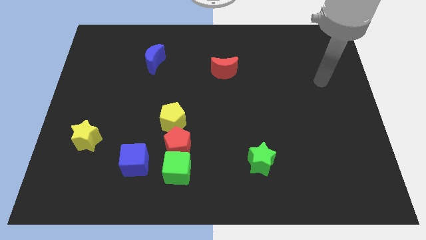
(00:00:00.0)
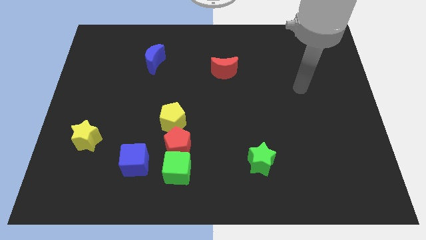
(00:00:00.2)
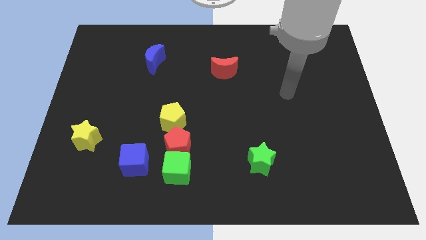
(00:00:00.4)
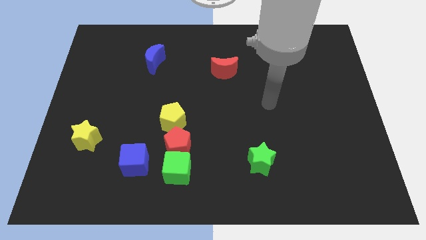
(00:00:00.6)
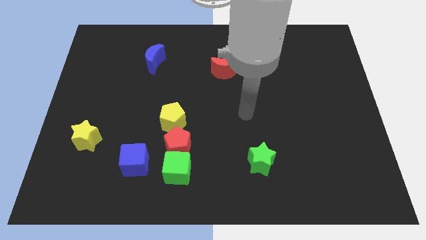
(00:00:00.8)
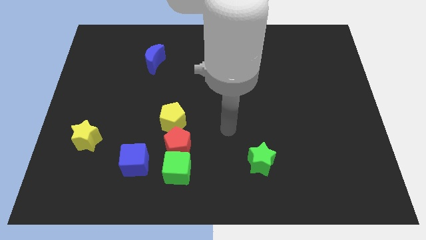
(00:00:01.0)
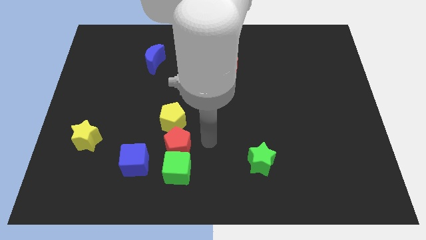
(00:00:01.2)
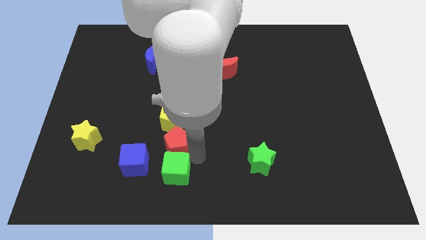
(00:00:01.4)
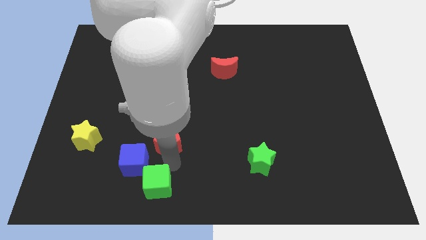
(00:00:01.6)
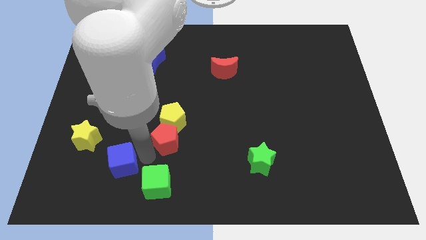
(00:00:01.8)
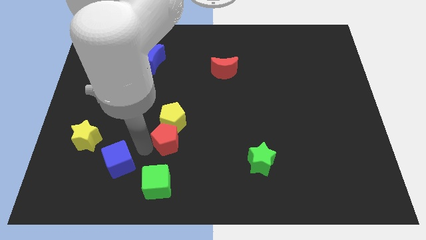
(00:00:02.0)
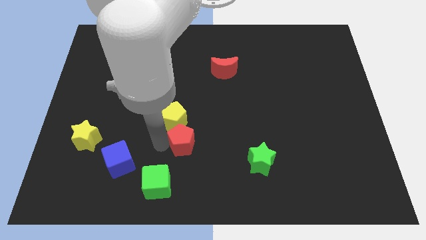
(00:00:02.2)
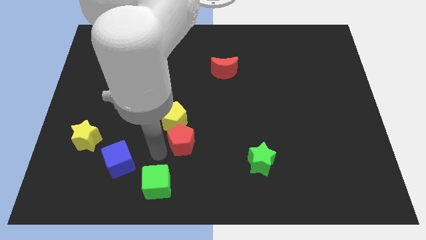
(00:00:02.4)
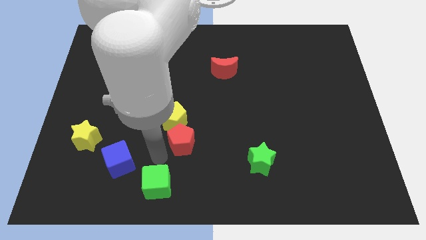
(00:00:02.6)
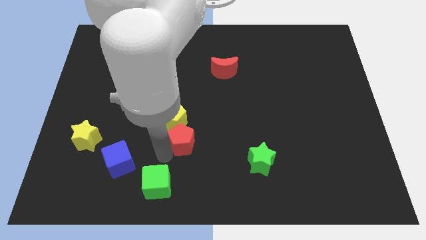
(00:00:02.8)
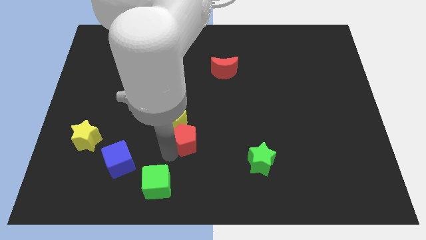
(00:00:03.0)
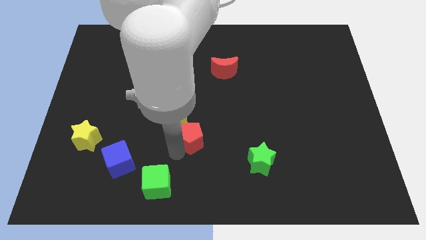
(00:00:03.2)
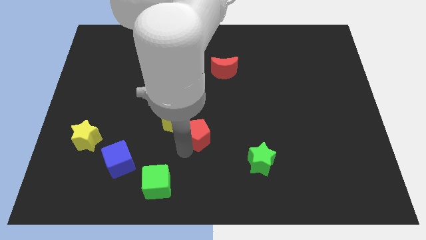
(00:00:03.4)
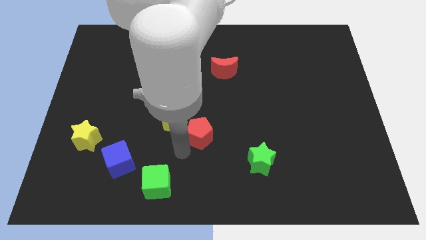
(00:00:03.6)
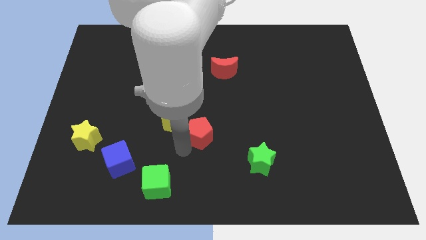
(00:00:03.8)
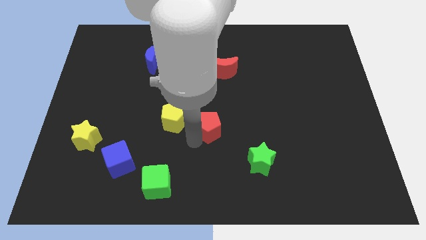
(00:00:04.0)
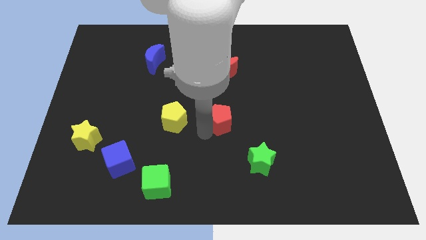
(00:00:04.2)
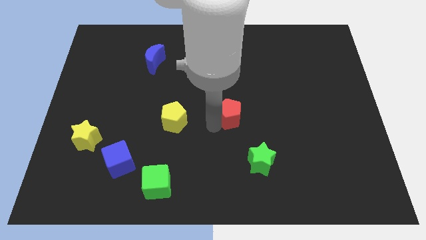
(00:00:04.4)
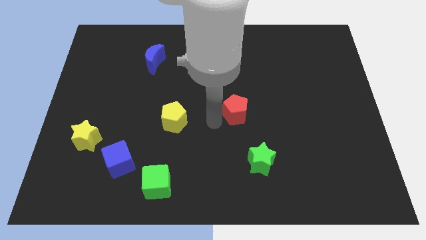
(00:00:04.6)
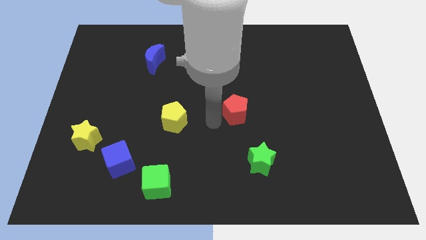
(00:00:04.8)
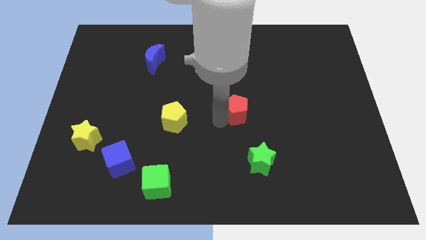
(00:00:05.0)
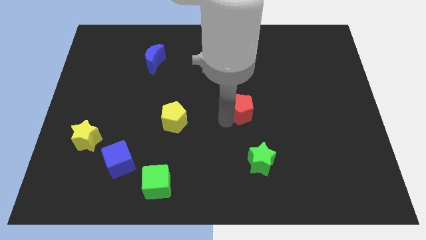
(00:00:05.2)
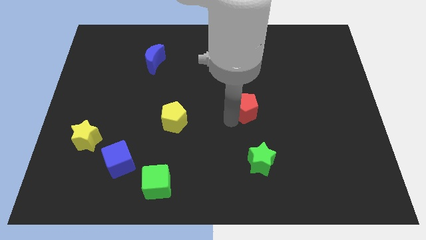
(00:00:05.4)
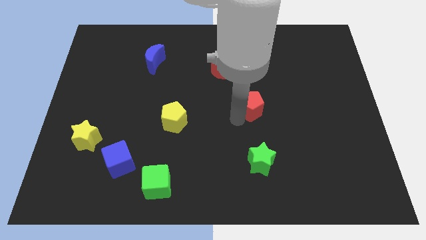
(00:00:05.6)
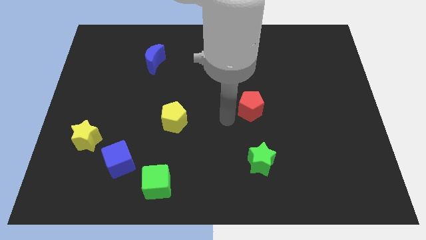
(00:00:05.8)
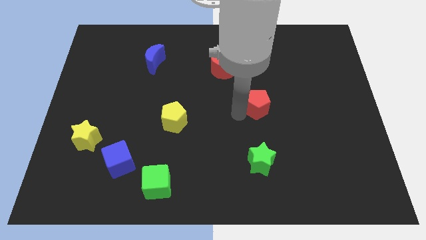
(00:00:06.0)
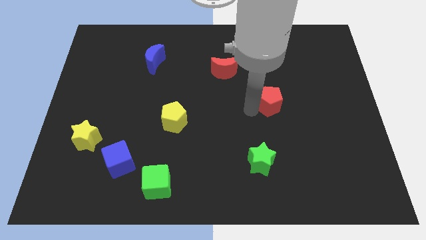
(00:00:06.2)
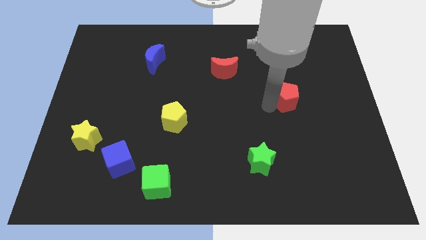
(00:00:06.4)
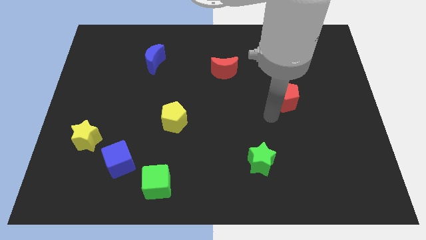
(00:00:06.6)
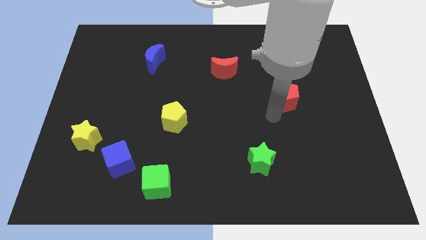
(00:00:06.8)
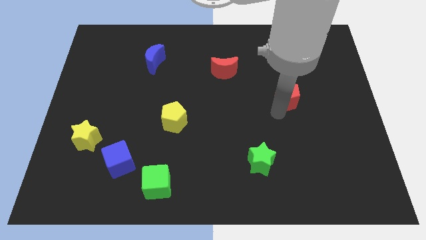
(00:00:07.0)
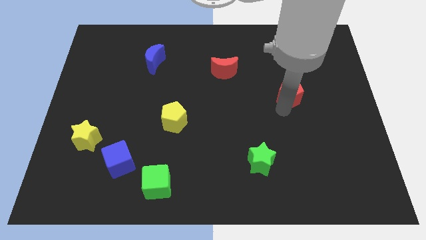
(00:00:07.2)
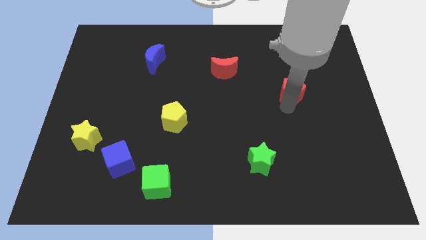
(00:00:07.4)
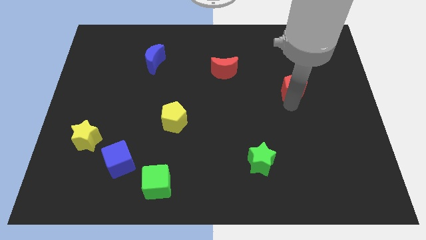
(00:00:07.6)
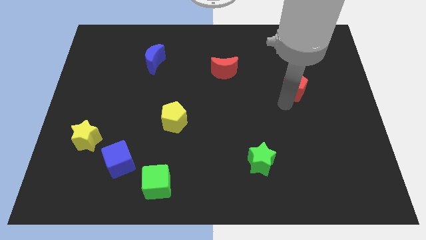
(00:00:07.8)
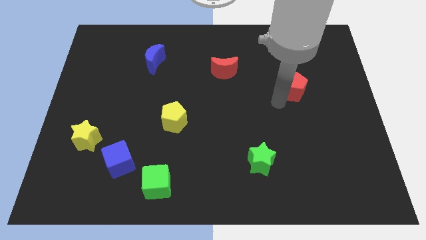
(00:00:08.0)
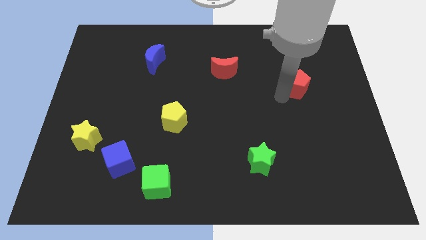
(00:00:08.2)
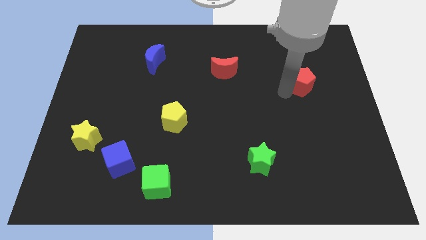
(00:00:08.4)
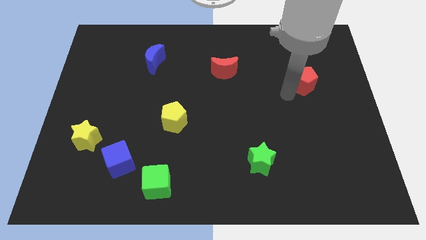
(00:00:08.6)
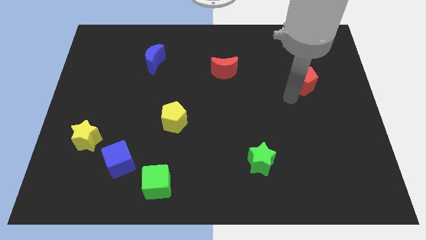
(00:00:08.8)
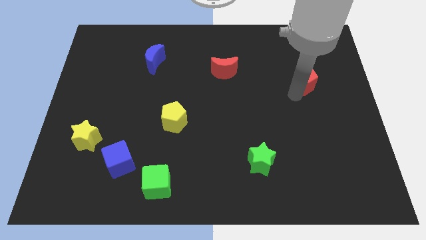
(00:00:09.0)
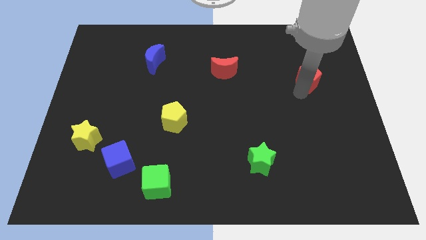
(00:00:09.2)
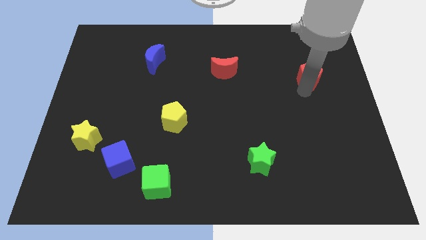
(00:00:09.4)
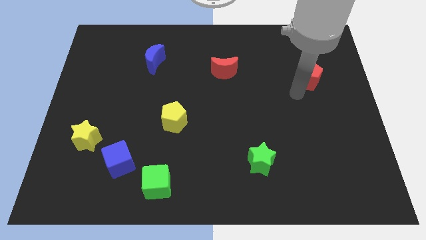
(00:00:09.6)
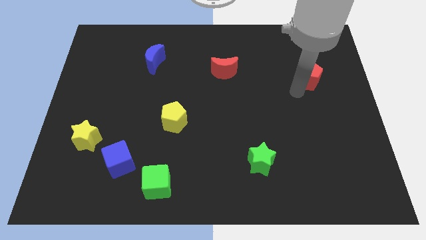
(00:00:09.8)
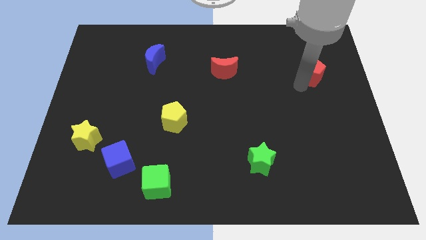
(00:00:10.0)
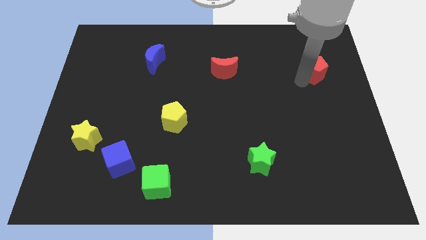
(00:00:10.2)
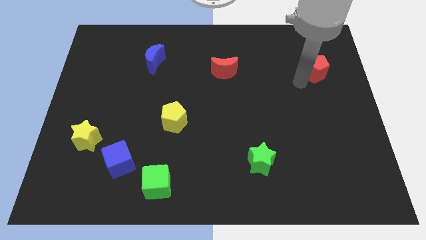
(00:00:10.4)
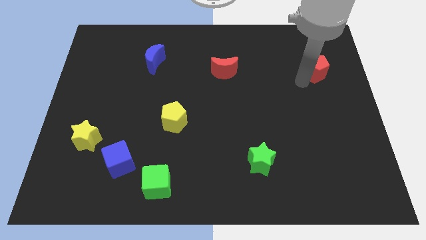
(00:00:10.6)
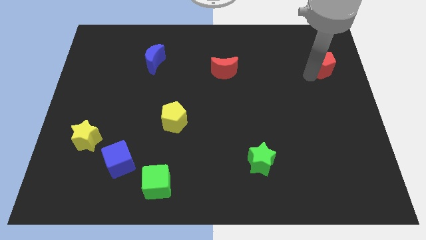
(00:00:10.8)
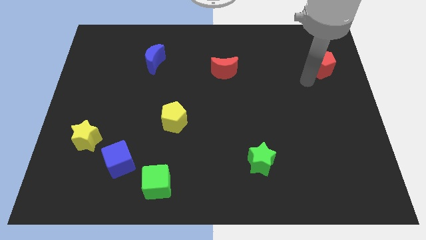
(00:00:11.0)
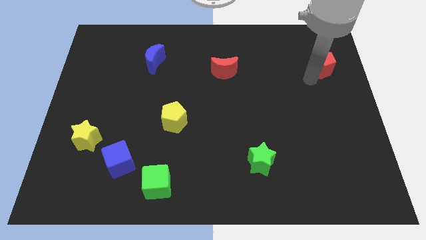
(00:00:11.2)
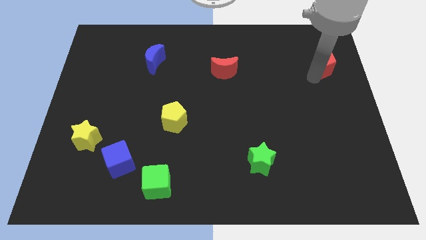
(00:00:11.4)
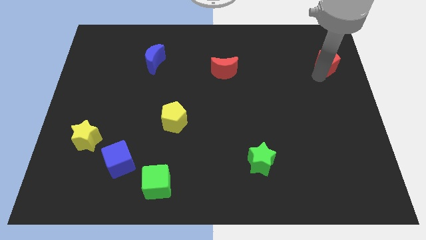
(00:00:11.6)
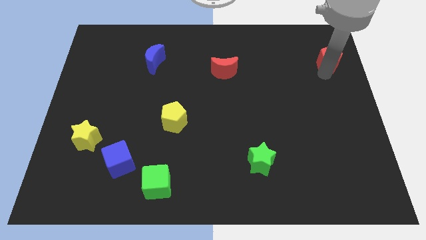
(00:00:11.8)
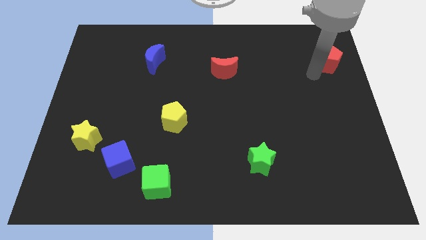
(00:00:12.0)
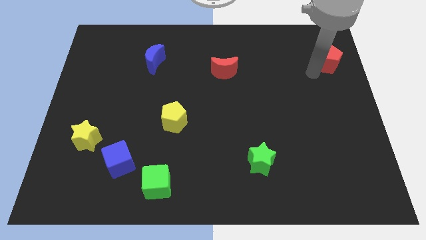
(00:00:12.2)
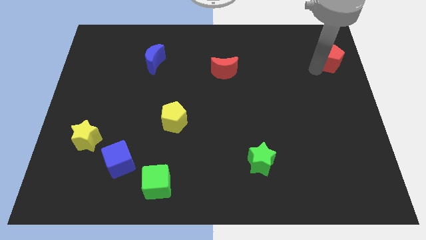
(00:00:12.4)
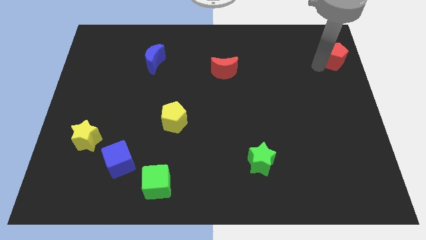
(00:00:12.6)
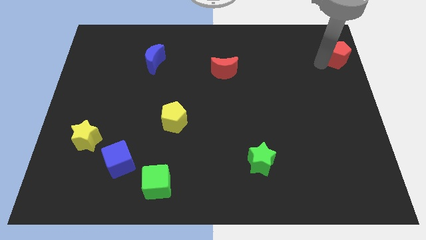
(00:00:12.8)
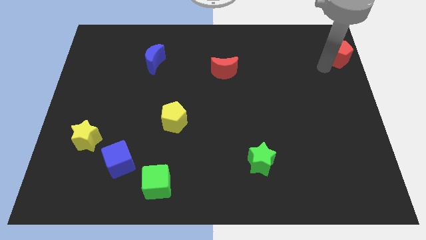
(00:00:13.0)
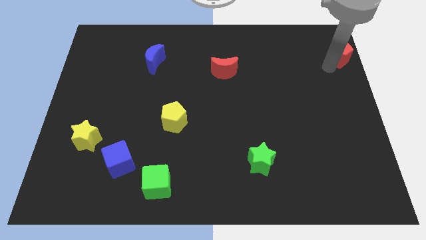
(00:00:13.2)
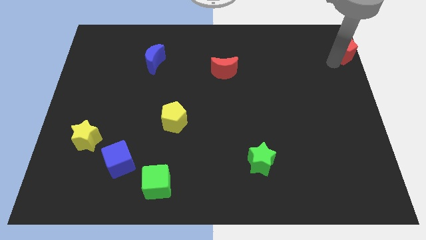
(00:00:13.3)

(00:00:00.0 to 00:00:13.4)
push the red pentagon to the top right corner
